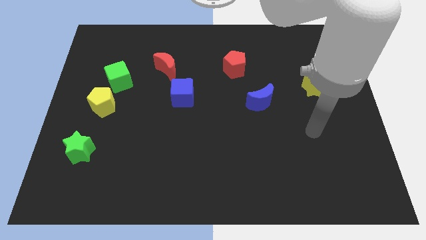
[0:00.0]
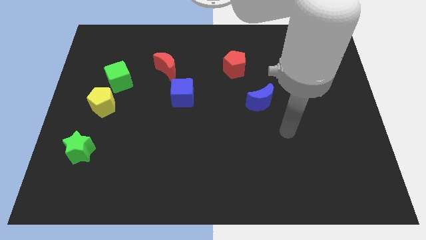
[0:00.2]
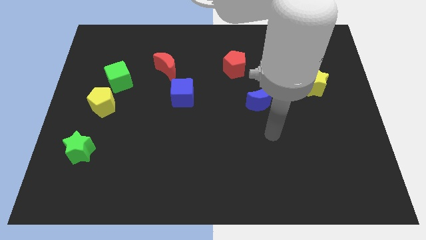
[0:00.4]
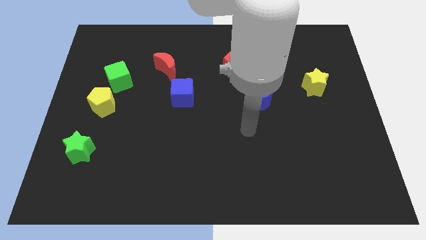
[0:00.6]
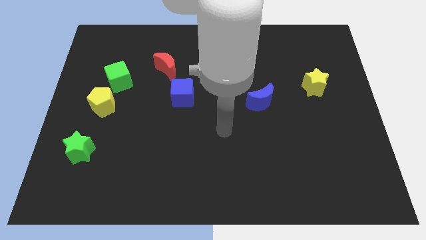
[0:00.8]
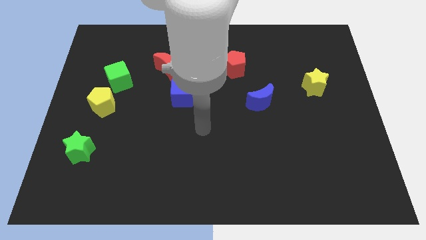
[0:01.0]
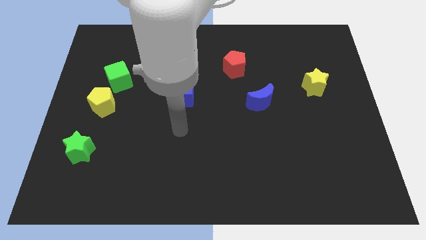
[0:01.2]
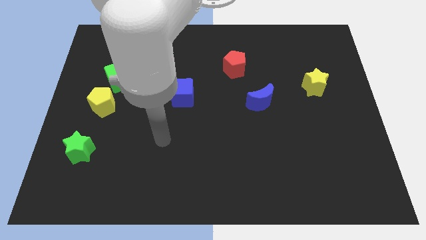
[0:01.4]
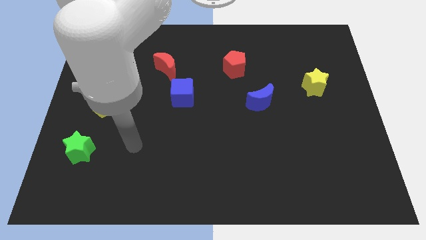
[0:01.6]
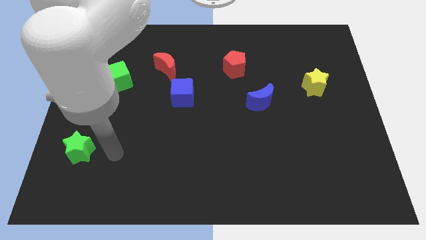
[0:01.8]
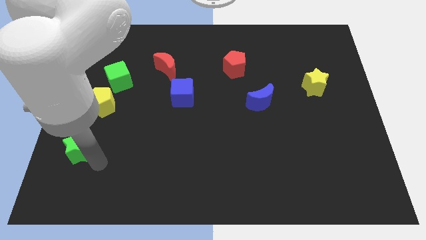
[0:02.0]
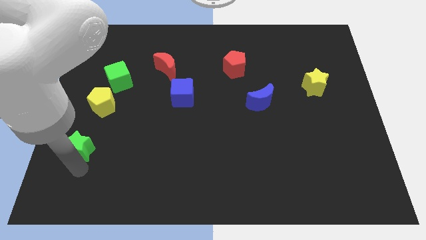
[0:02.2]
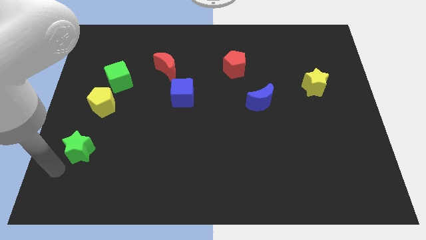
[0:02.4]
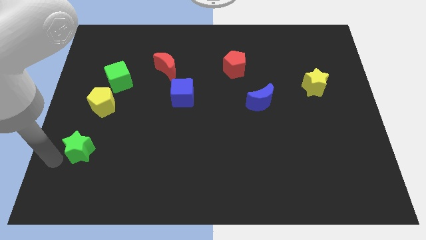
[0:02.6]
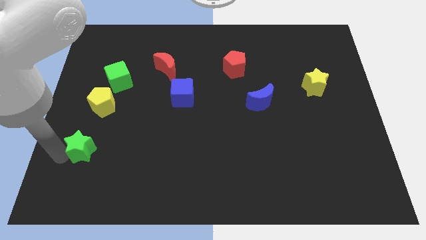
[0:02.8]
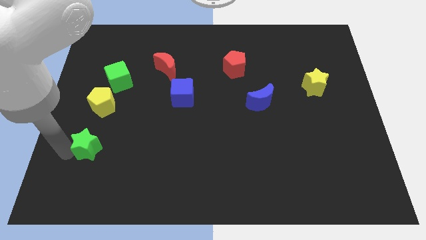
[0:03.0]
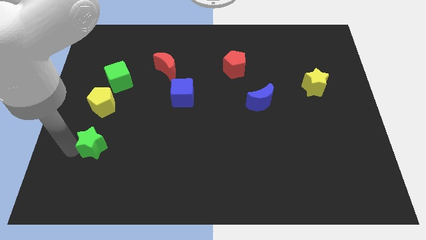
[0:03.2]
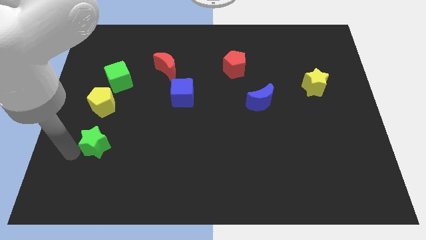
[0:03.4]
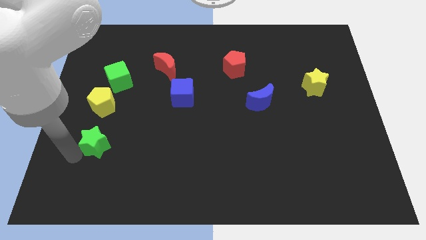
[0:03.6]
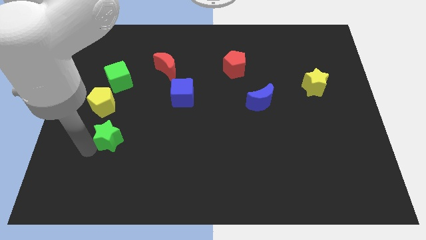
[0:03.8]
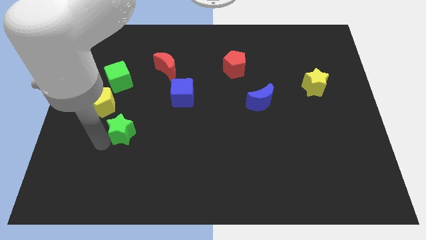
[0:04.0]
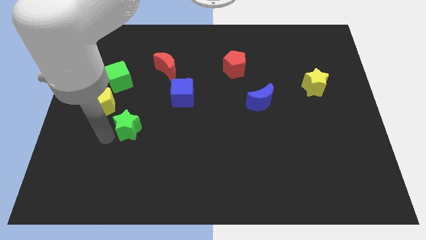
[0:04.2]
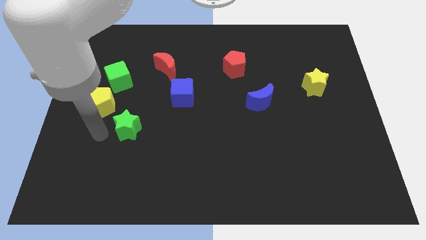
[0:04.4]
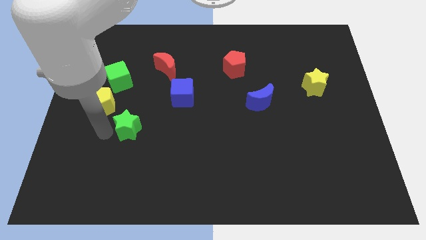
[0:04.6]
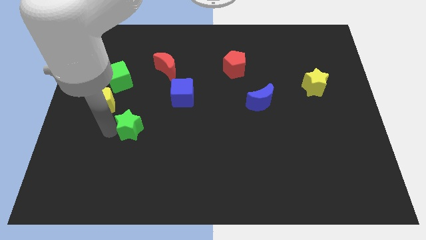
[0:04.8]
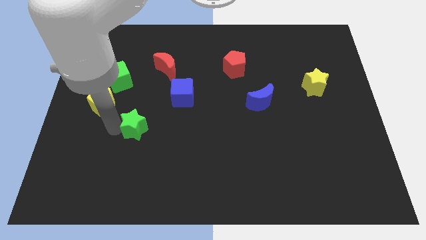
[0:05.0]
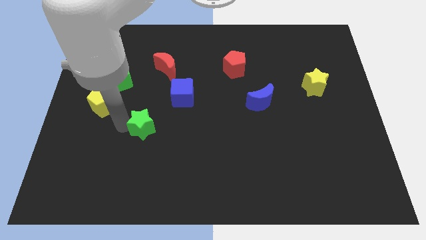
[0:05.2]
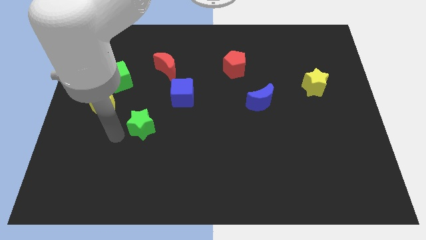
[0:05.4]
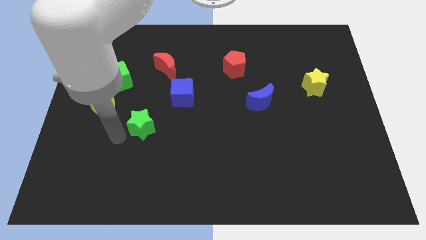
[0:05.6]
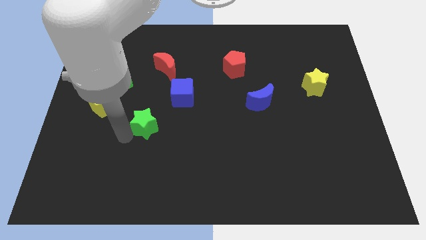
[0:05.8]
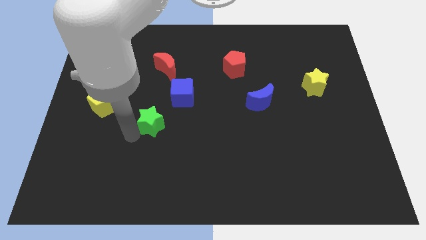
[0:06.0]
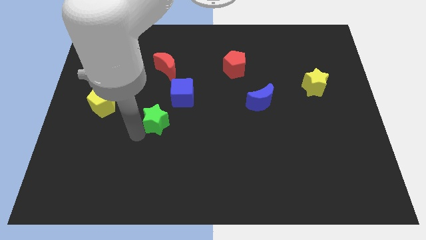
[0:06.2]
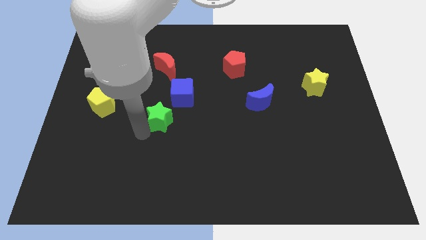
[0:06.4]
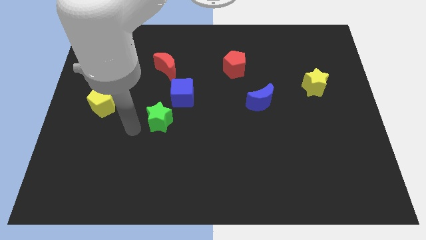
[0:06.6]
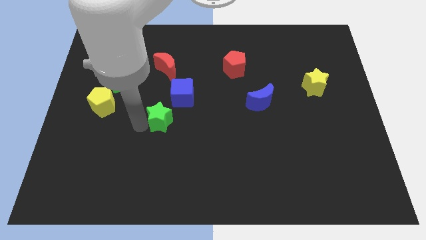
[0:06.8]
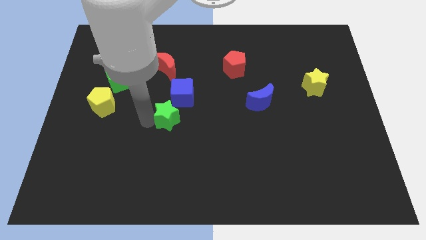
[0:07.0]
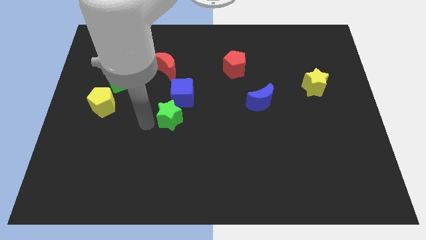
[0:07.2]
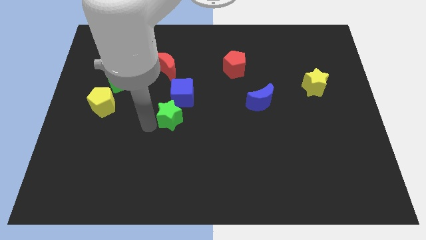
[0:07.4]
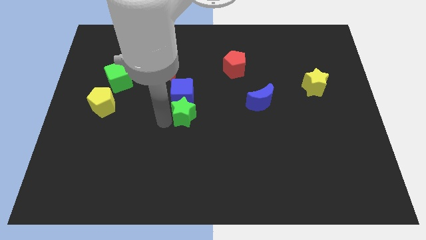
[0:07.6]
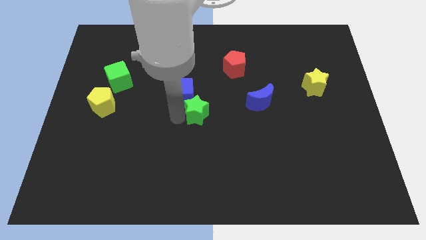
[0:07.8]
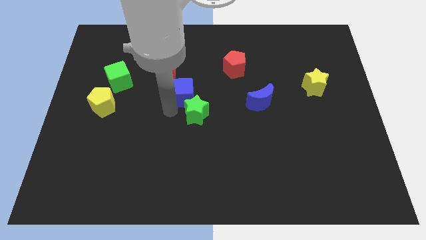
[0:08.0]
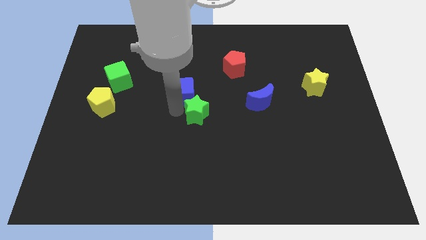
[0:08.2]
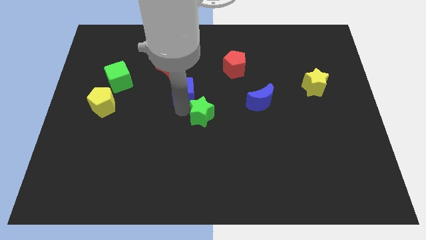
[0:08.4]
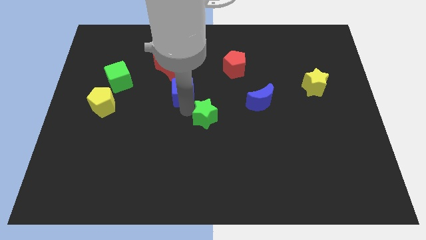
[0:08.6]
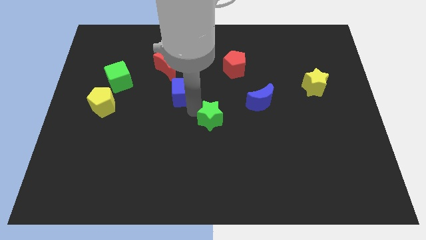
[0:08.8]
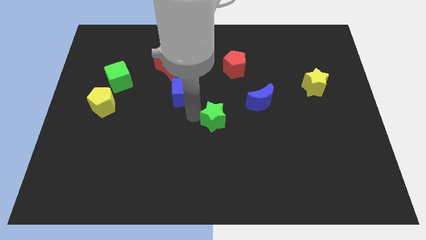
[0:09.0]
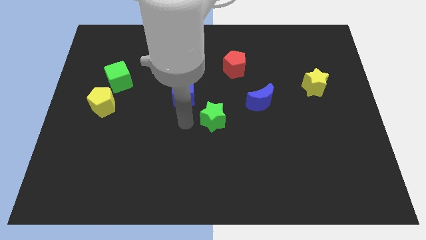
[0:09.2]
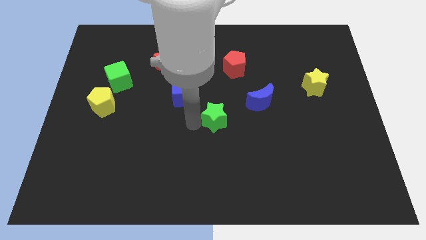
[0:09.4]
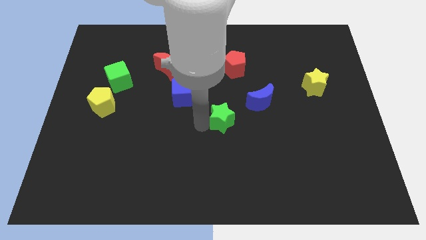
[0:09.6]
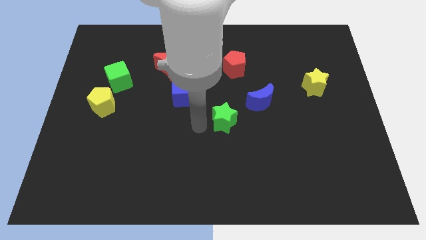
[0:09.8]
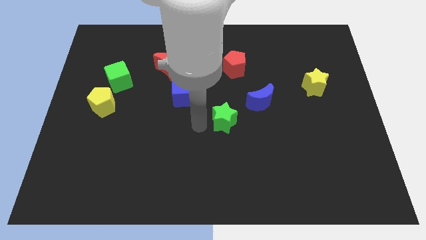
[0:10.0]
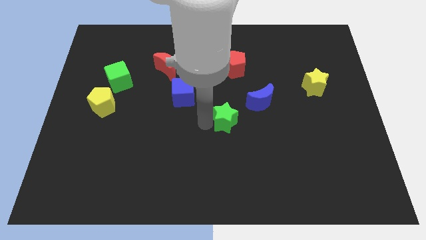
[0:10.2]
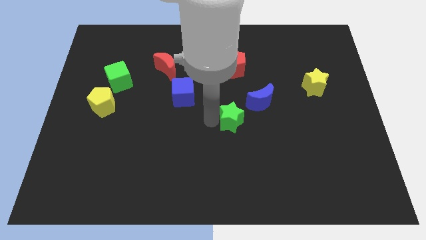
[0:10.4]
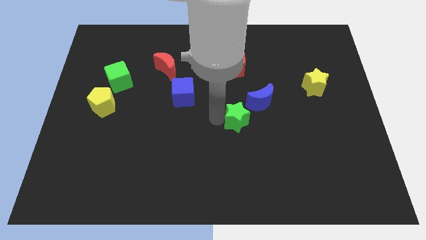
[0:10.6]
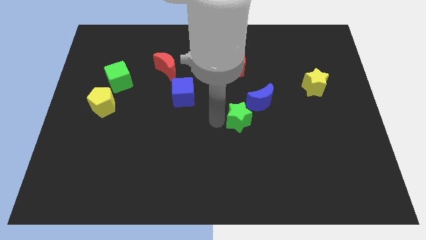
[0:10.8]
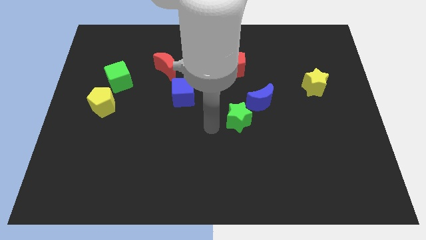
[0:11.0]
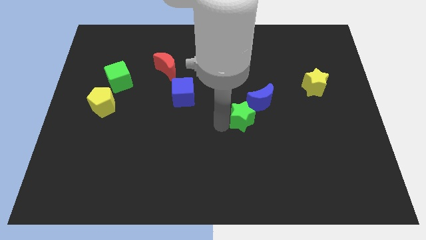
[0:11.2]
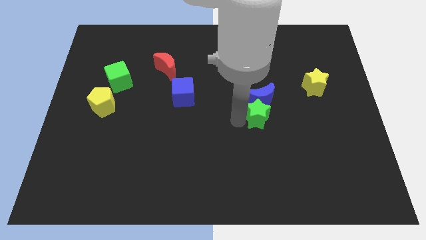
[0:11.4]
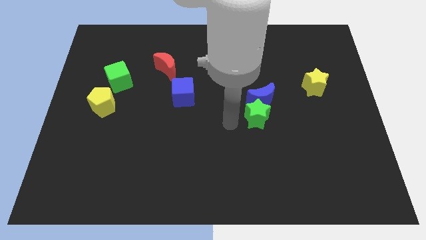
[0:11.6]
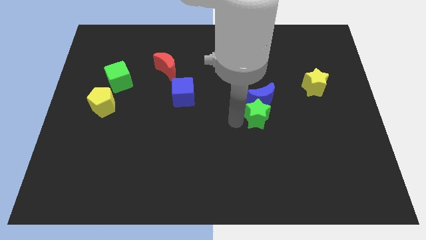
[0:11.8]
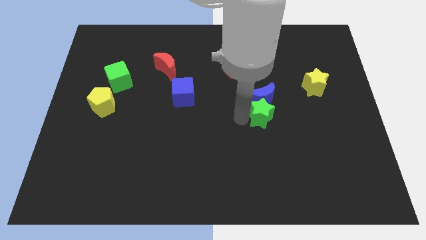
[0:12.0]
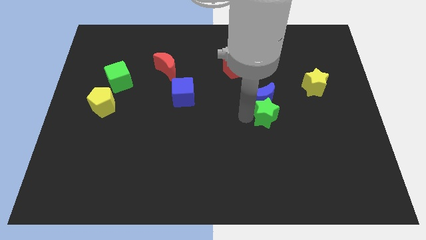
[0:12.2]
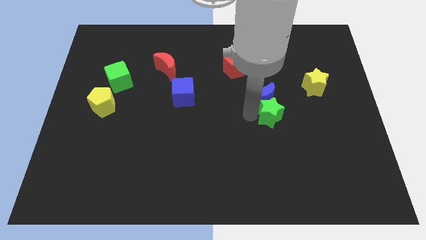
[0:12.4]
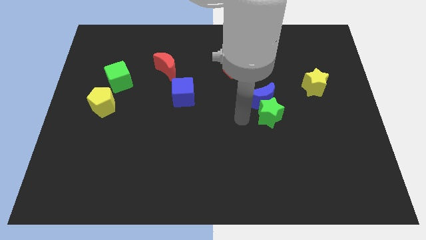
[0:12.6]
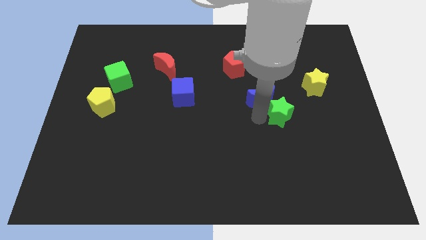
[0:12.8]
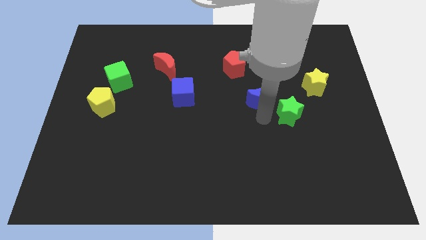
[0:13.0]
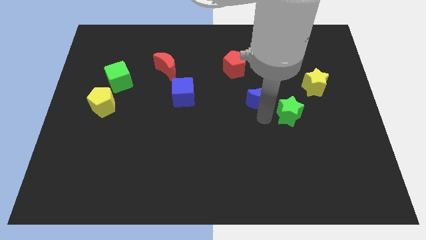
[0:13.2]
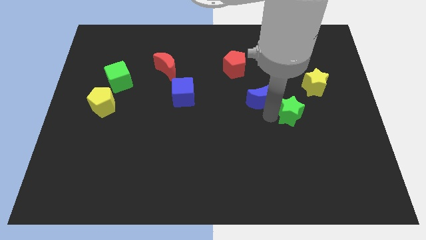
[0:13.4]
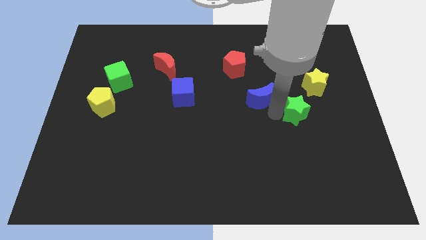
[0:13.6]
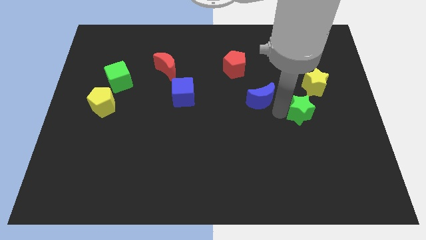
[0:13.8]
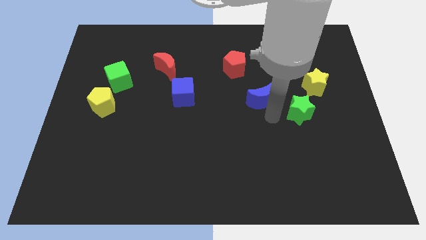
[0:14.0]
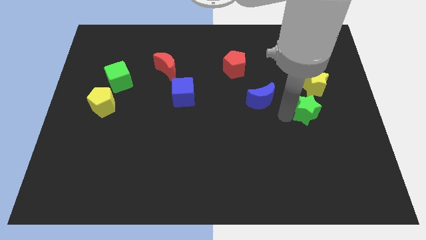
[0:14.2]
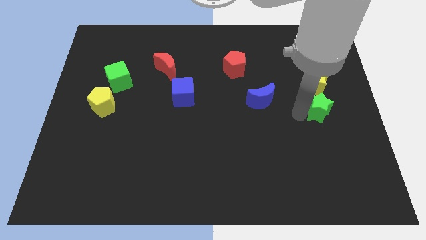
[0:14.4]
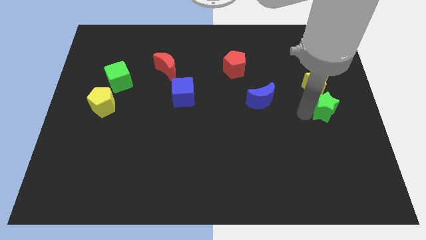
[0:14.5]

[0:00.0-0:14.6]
move the green star to the center right
